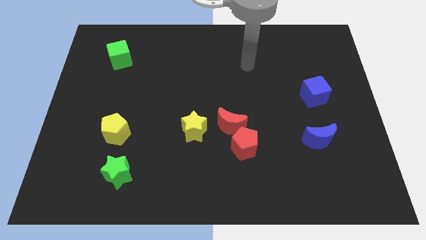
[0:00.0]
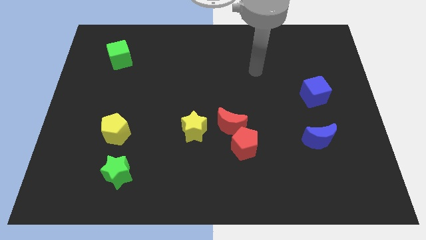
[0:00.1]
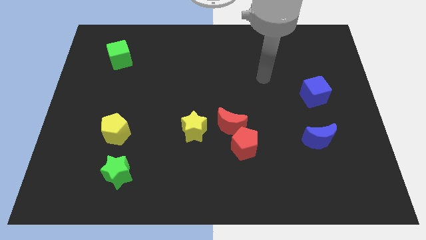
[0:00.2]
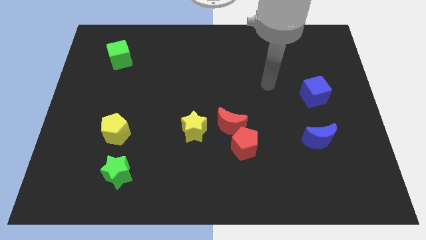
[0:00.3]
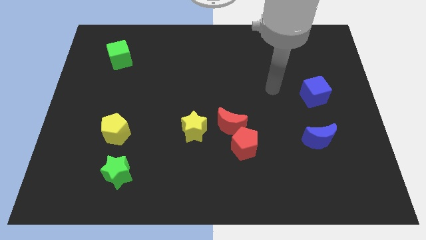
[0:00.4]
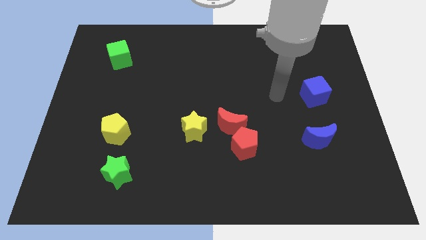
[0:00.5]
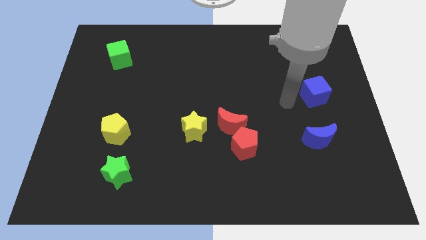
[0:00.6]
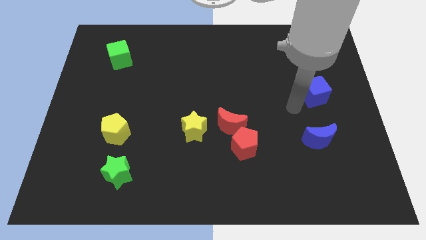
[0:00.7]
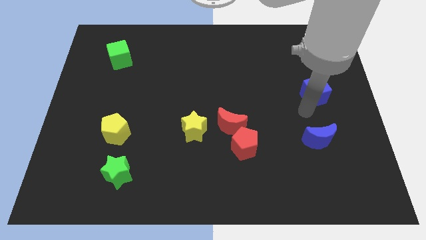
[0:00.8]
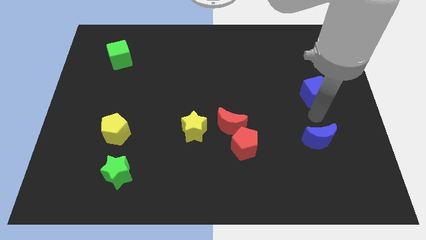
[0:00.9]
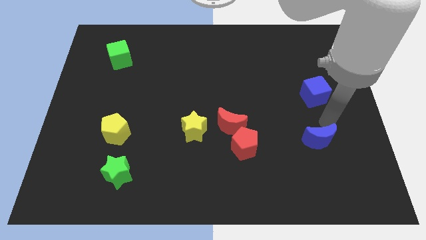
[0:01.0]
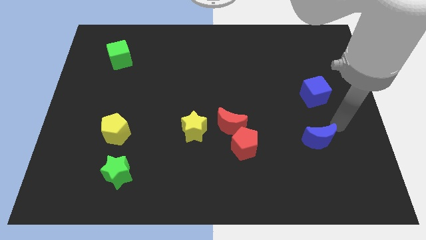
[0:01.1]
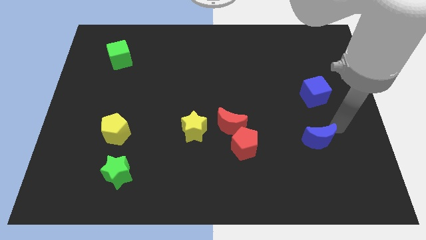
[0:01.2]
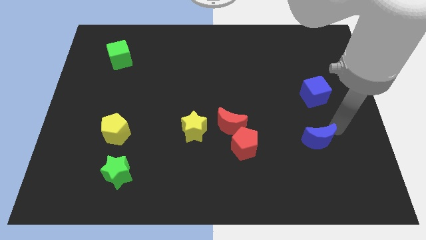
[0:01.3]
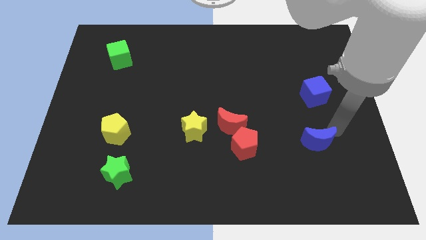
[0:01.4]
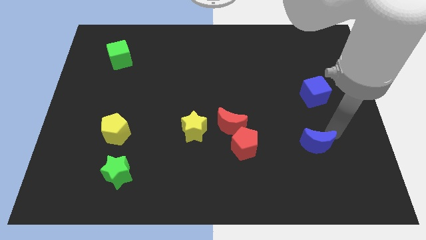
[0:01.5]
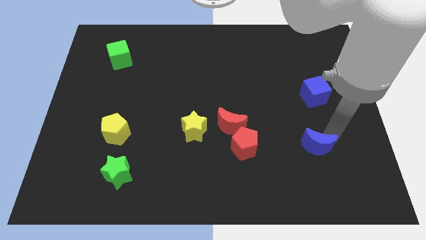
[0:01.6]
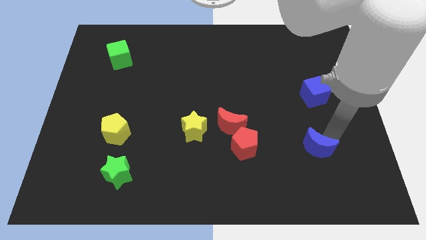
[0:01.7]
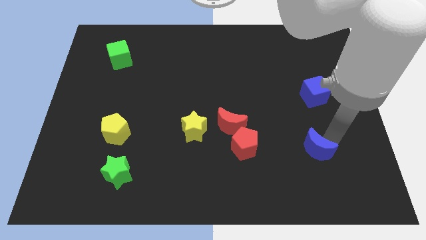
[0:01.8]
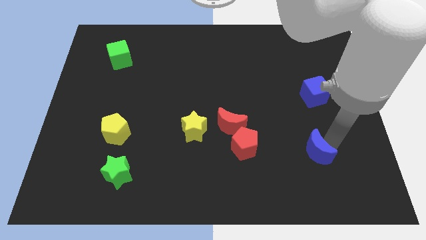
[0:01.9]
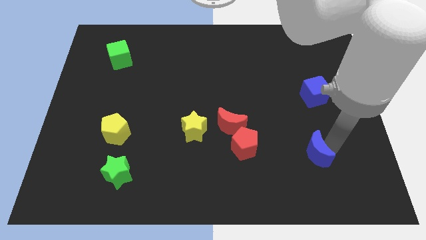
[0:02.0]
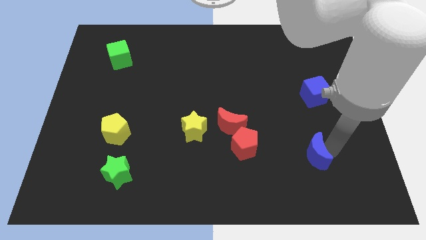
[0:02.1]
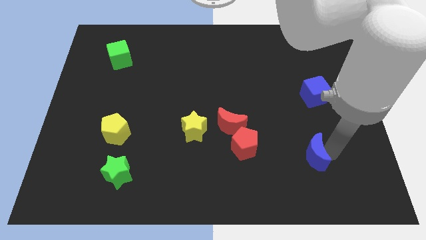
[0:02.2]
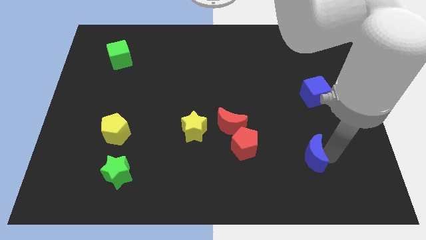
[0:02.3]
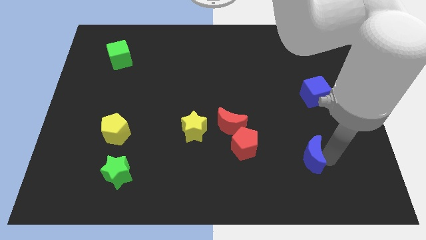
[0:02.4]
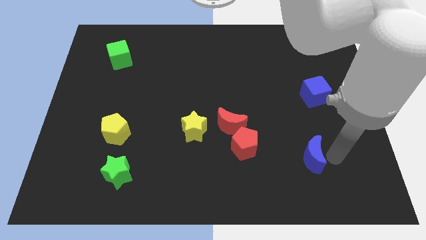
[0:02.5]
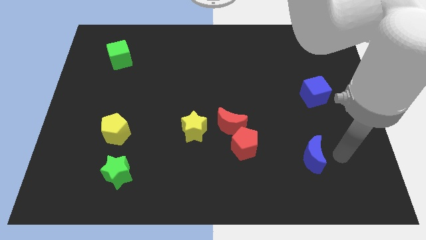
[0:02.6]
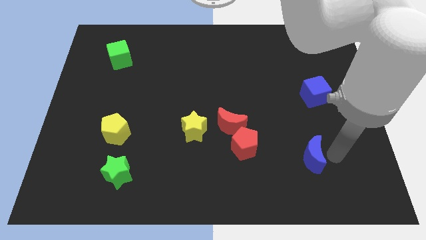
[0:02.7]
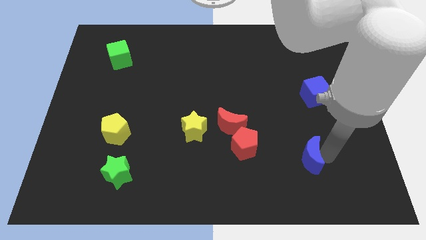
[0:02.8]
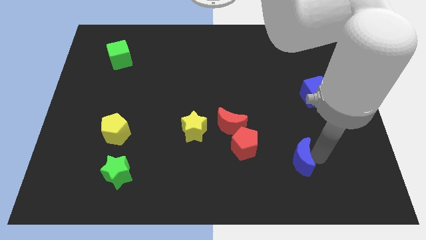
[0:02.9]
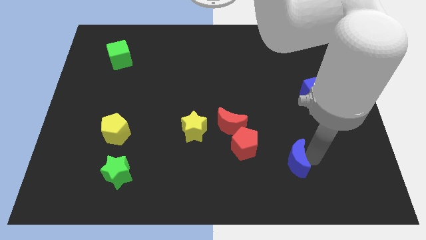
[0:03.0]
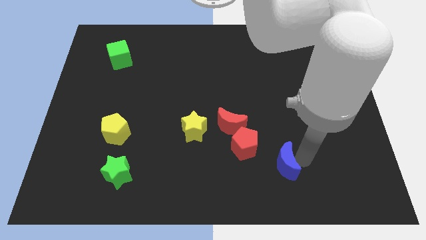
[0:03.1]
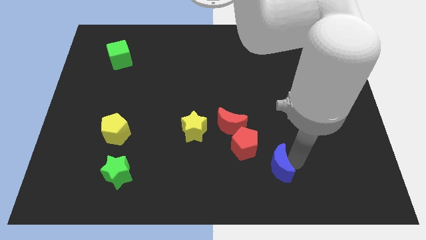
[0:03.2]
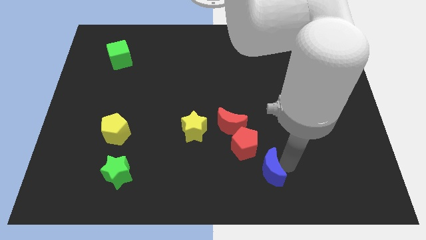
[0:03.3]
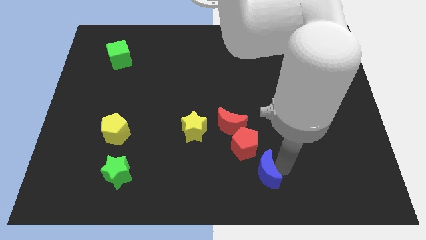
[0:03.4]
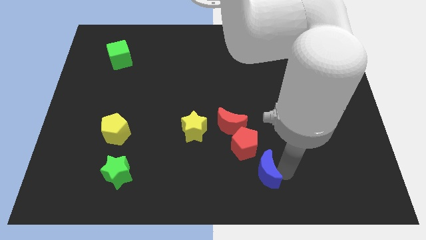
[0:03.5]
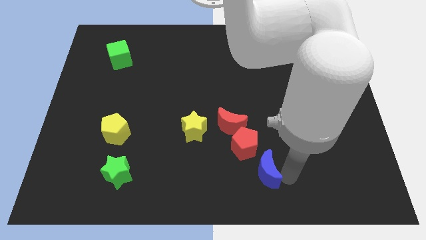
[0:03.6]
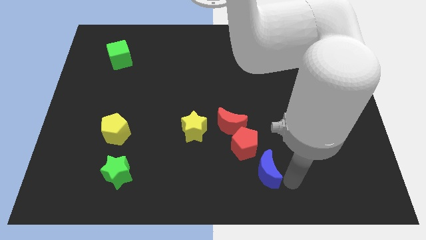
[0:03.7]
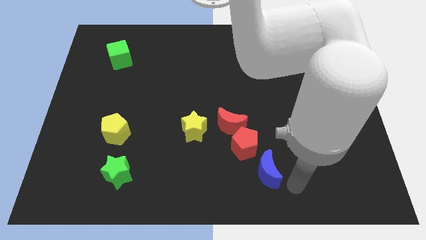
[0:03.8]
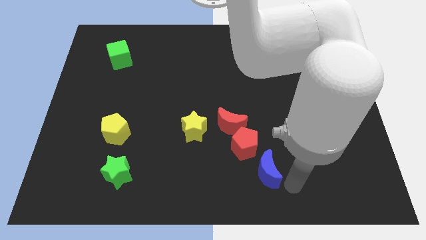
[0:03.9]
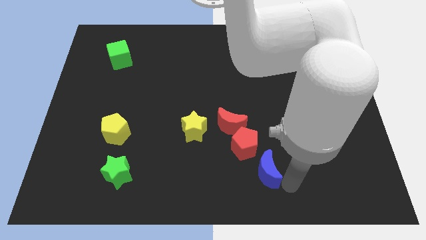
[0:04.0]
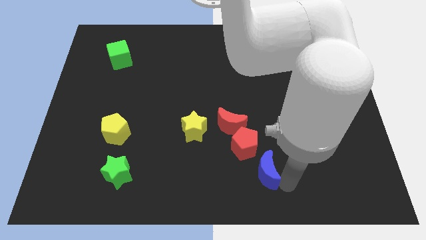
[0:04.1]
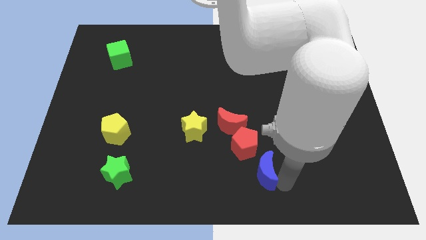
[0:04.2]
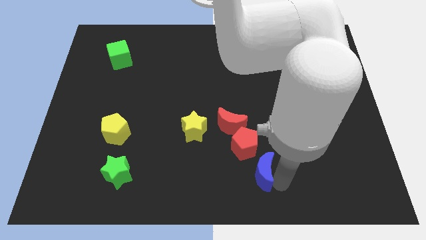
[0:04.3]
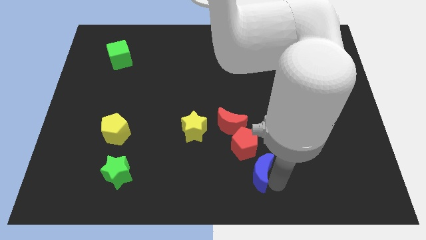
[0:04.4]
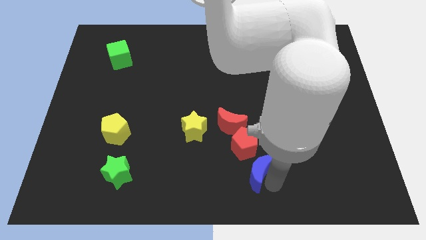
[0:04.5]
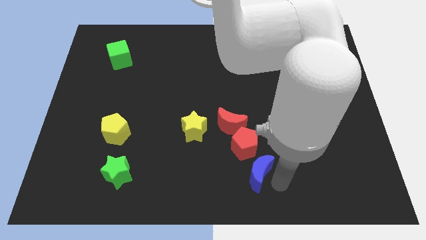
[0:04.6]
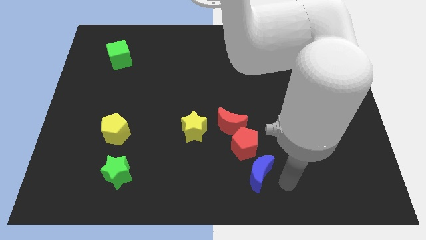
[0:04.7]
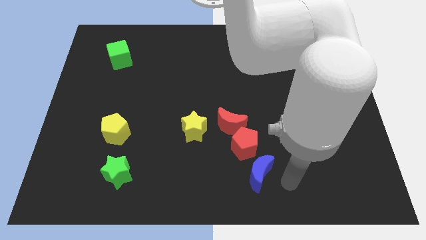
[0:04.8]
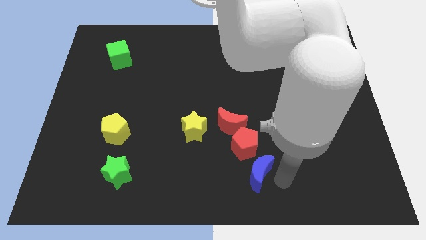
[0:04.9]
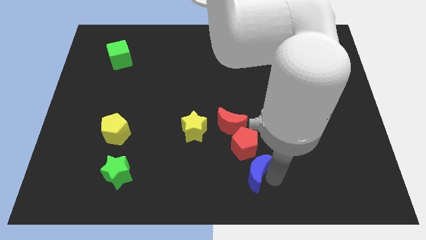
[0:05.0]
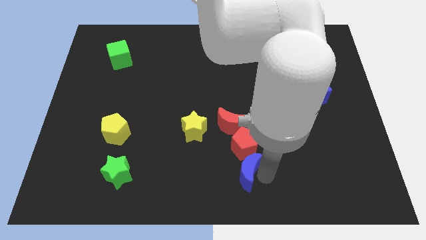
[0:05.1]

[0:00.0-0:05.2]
put the blue moon below the red moon

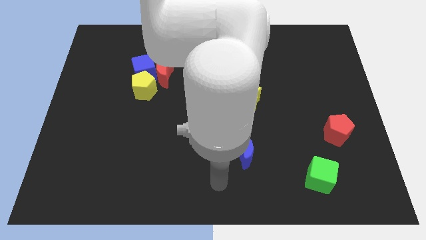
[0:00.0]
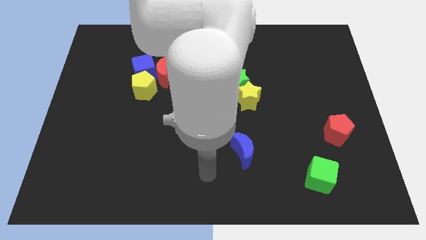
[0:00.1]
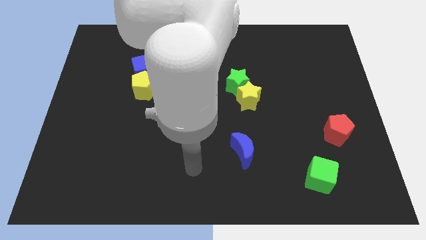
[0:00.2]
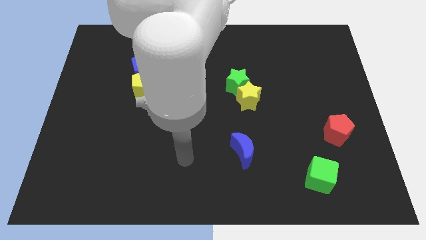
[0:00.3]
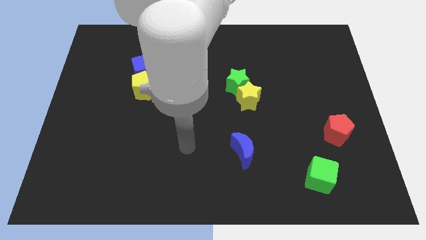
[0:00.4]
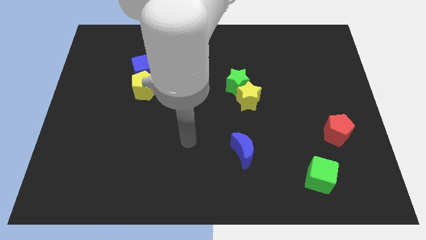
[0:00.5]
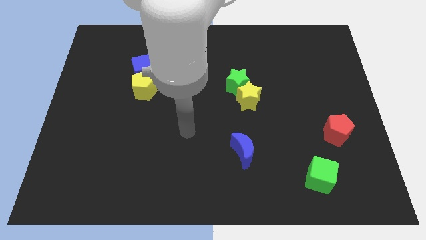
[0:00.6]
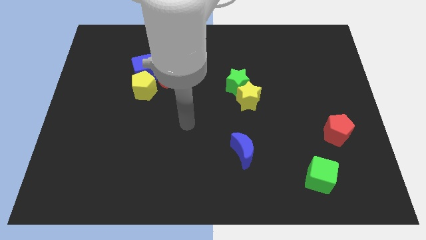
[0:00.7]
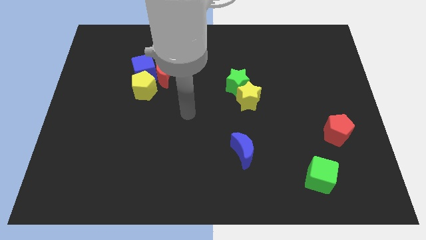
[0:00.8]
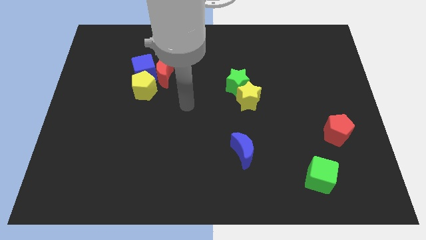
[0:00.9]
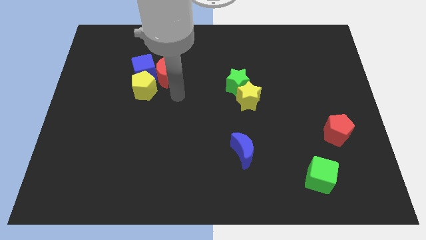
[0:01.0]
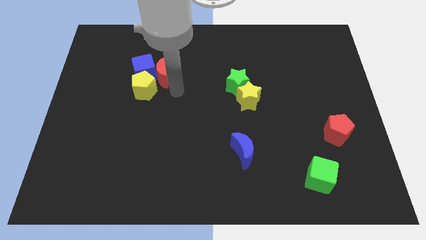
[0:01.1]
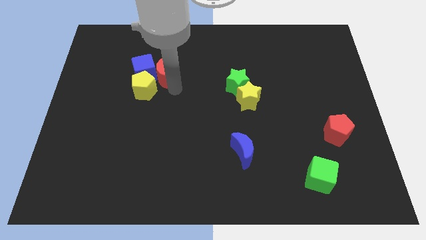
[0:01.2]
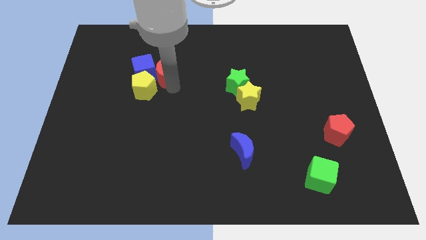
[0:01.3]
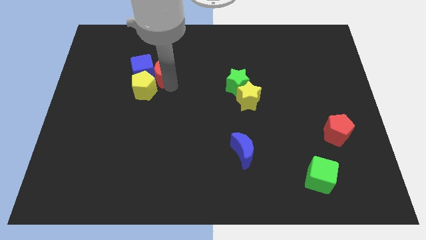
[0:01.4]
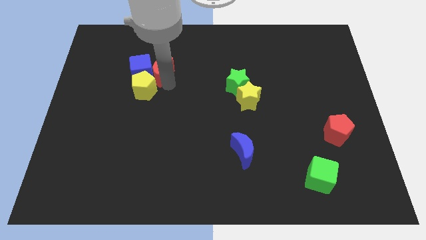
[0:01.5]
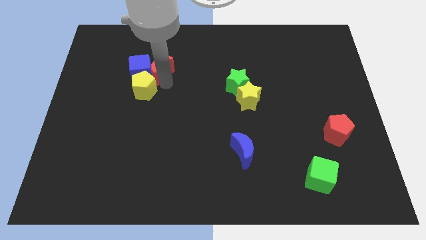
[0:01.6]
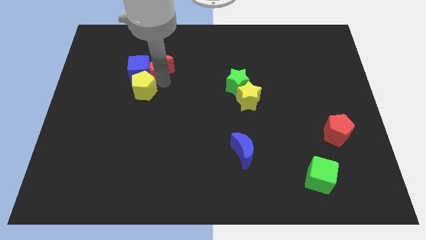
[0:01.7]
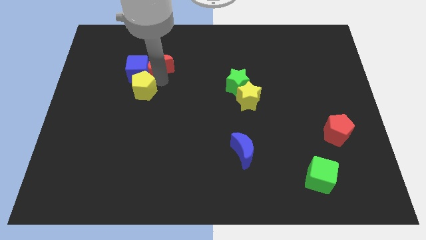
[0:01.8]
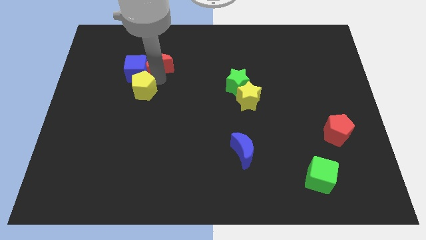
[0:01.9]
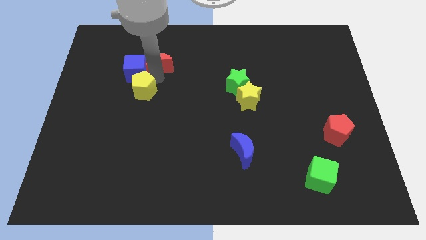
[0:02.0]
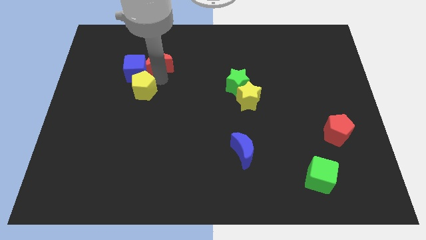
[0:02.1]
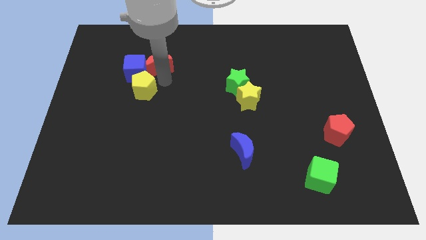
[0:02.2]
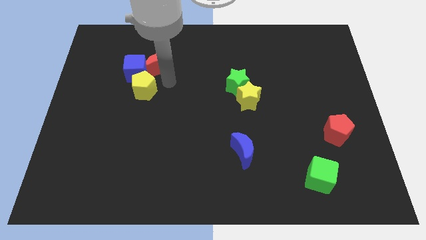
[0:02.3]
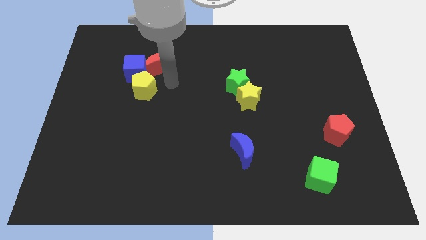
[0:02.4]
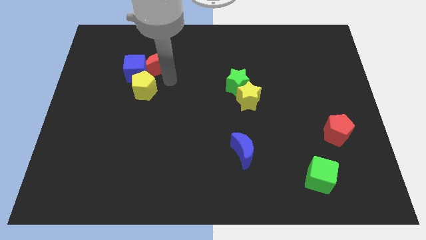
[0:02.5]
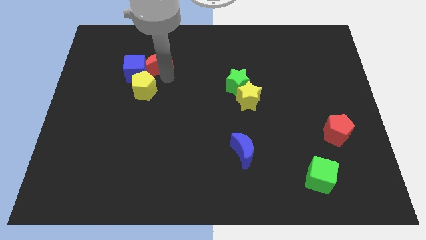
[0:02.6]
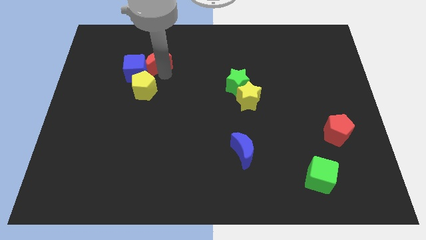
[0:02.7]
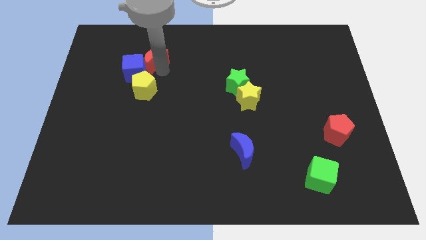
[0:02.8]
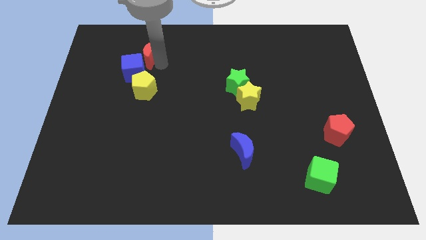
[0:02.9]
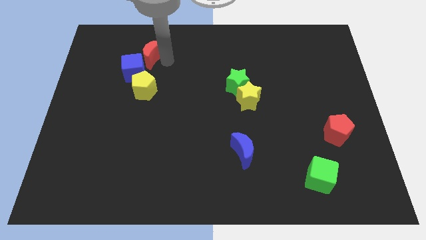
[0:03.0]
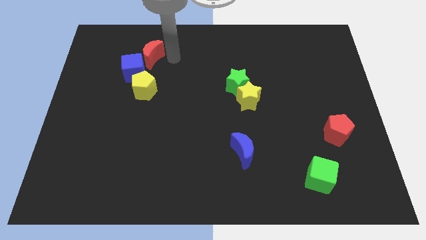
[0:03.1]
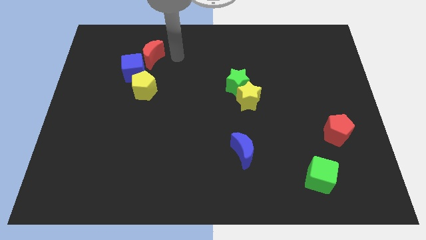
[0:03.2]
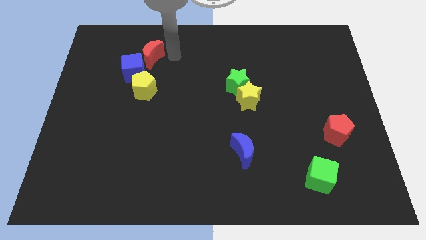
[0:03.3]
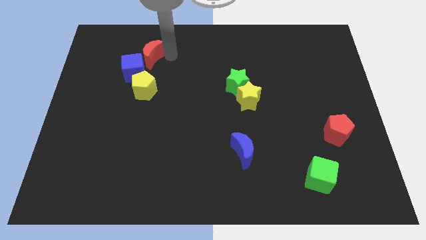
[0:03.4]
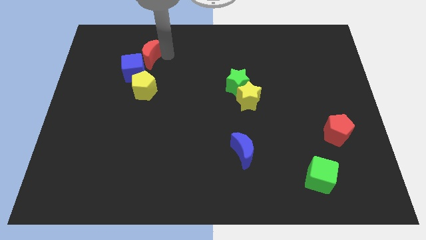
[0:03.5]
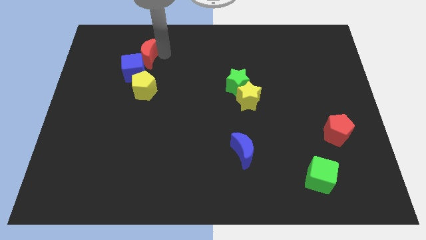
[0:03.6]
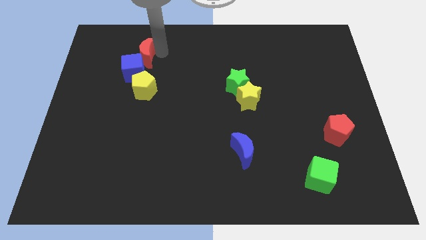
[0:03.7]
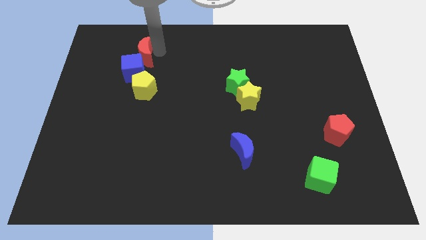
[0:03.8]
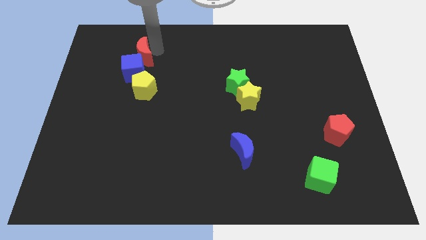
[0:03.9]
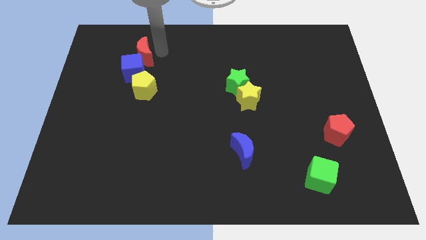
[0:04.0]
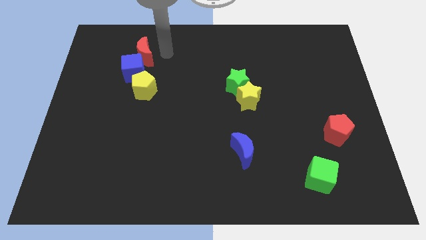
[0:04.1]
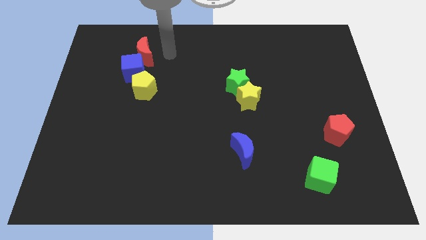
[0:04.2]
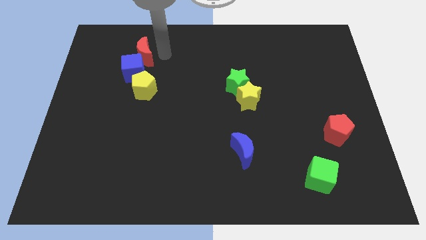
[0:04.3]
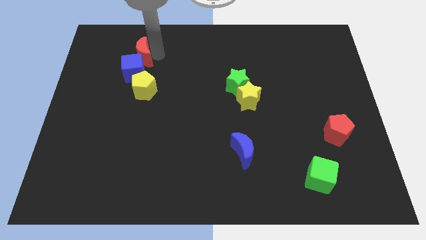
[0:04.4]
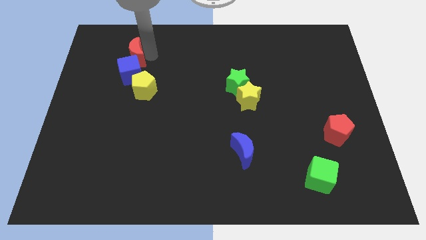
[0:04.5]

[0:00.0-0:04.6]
move the red moon to the top left side of the blue cube
